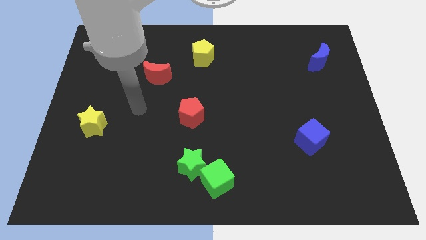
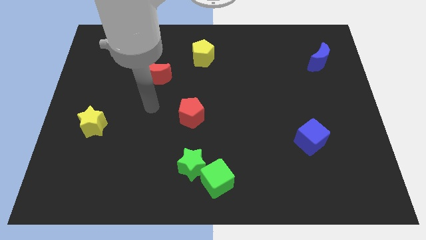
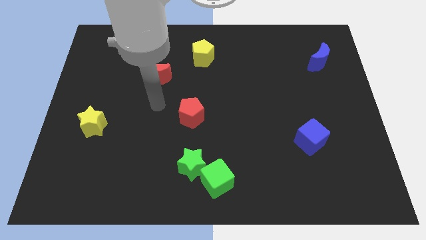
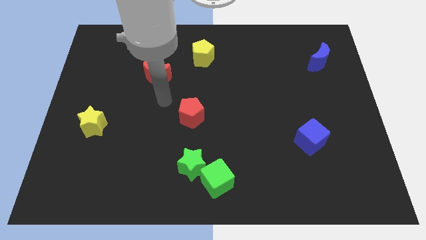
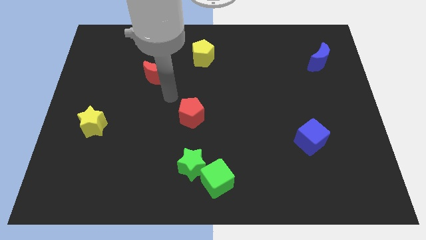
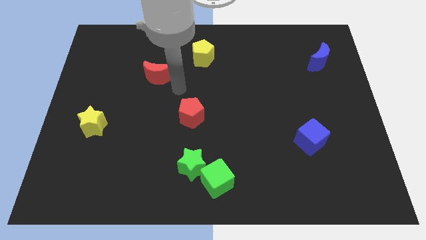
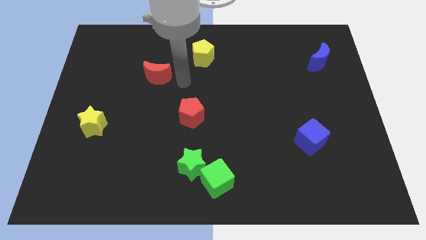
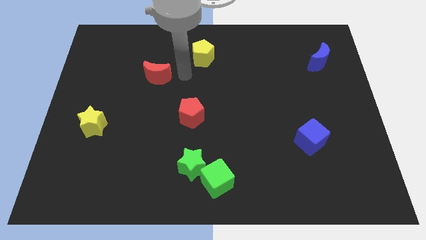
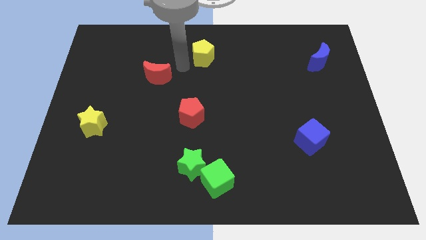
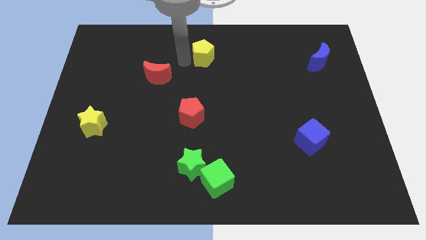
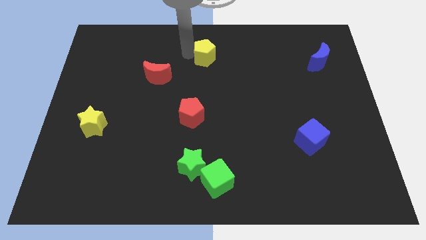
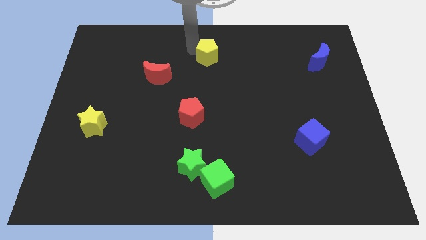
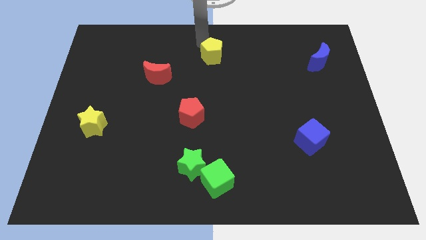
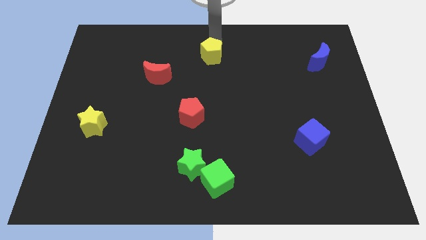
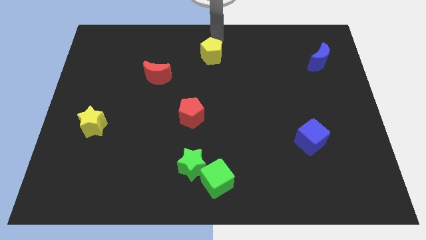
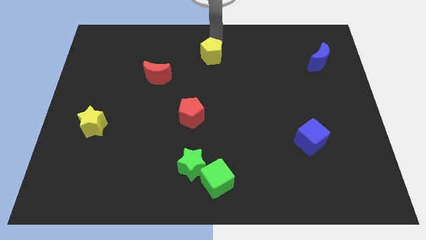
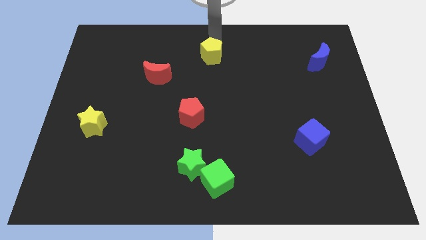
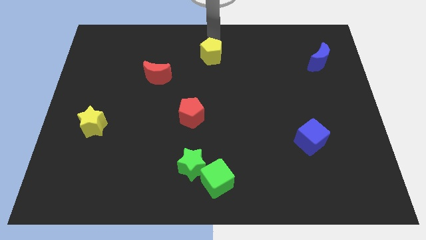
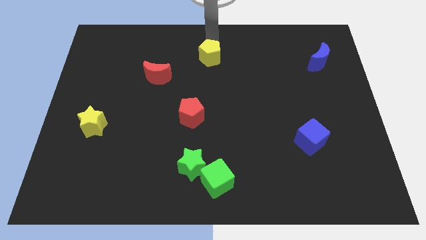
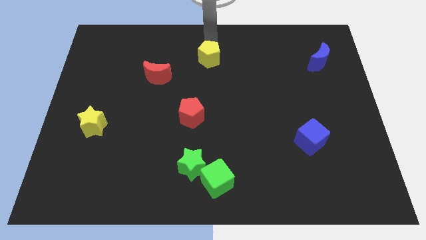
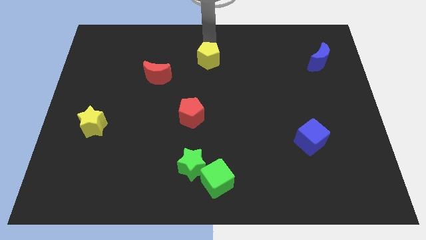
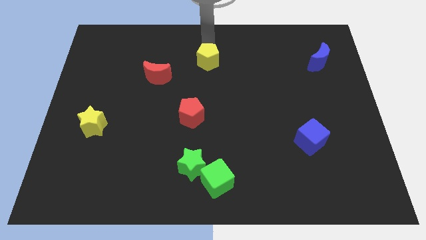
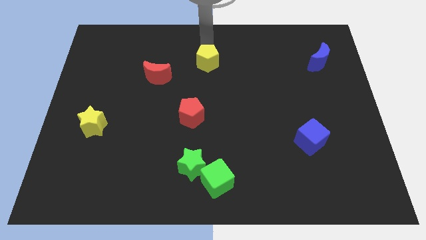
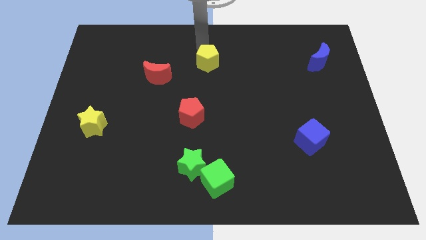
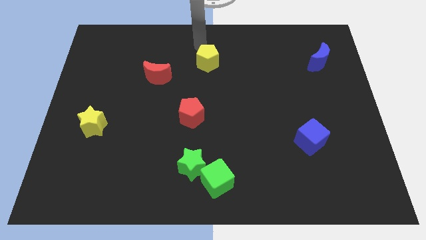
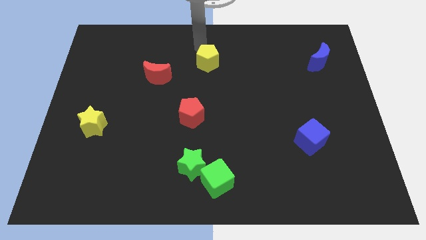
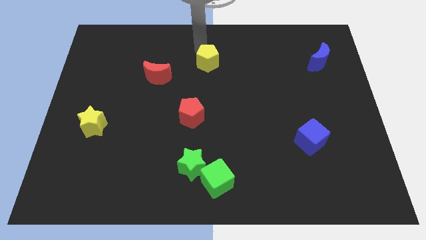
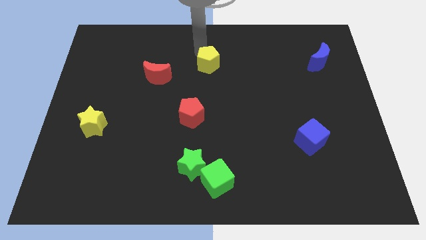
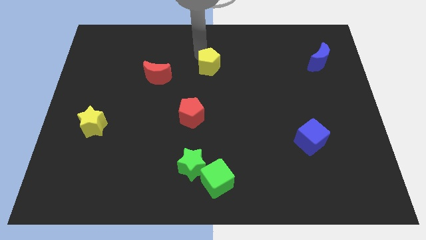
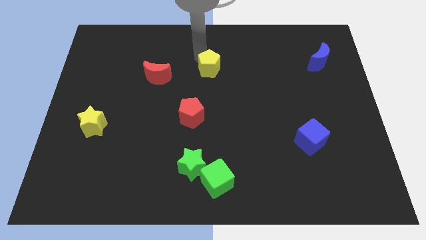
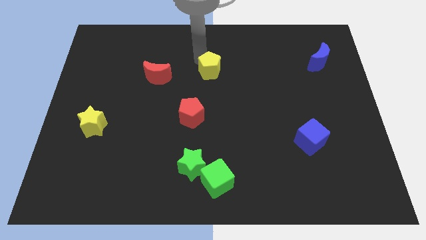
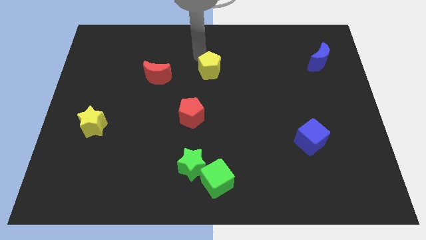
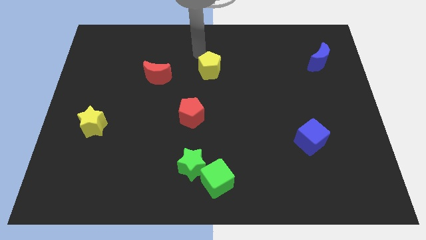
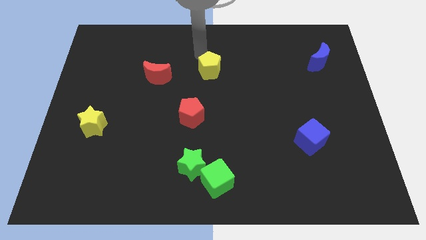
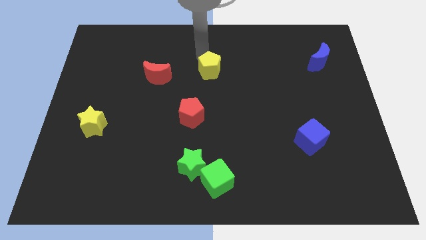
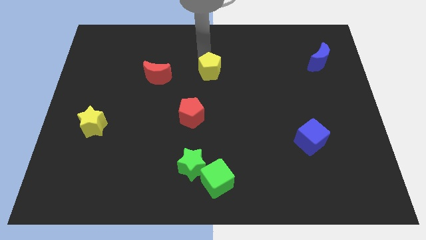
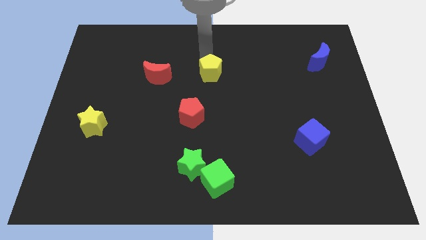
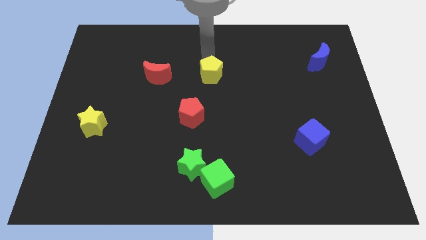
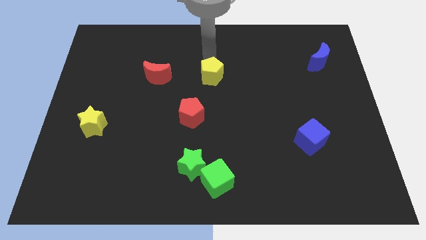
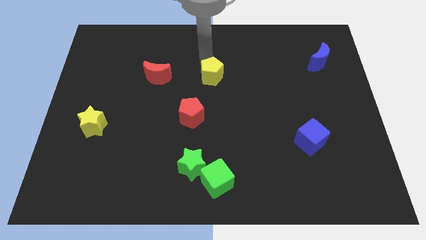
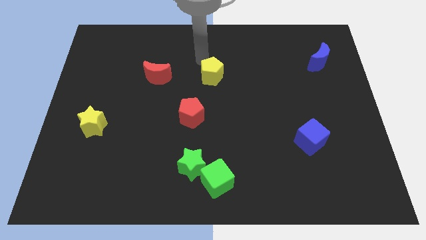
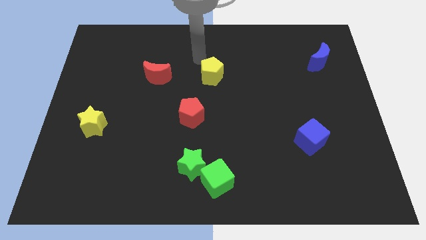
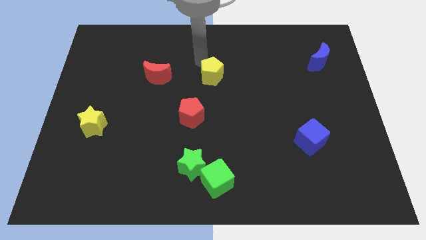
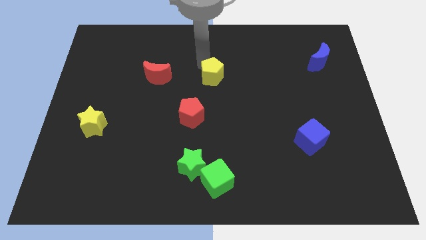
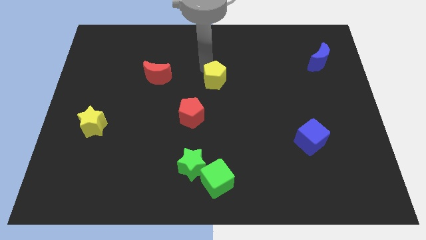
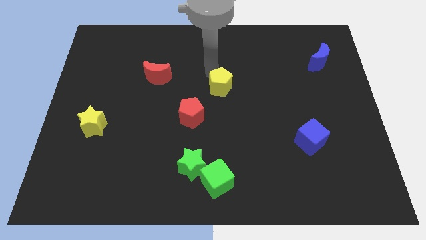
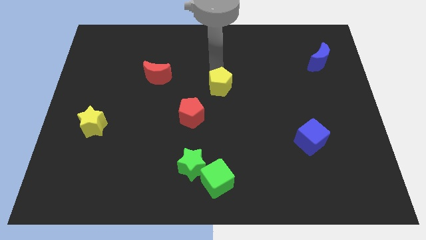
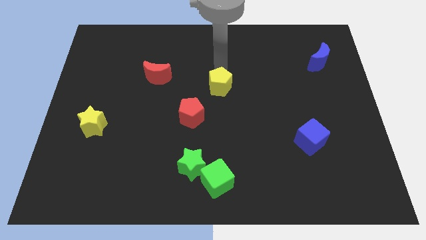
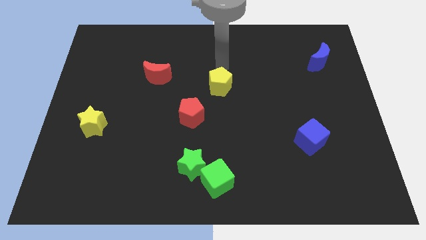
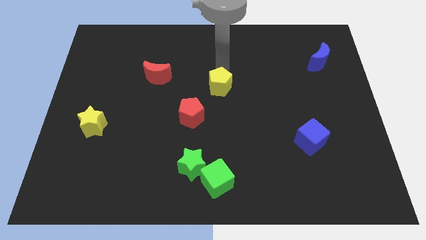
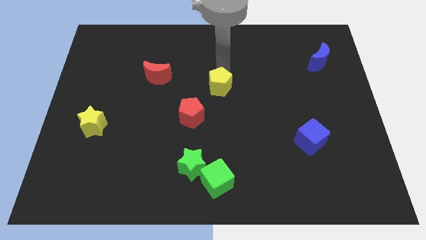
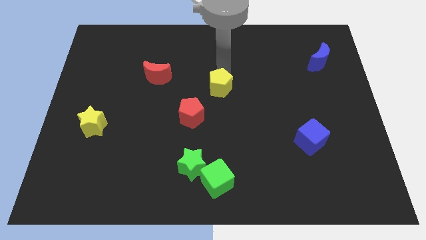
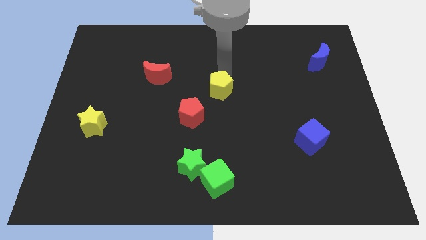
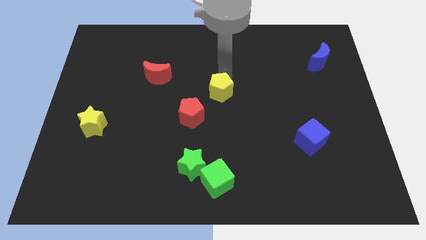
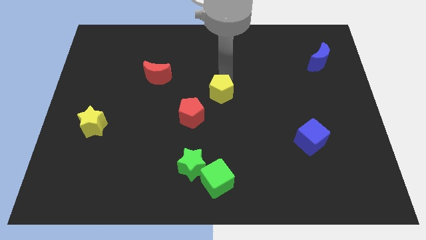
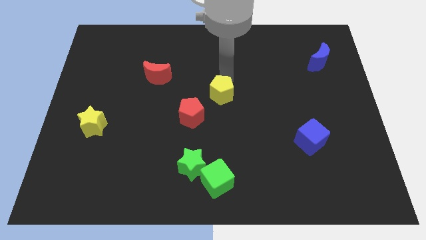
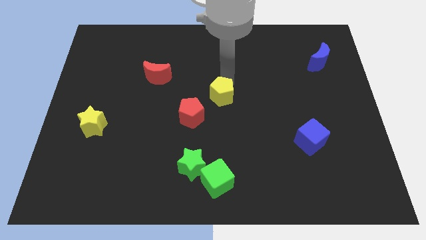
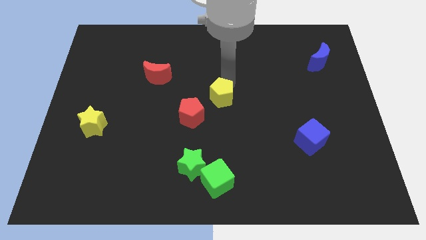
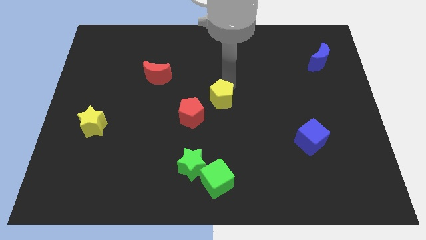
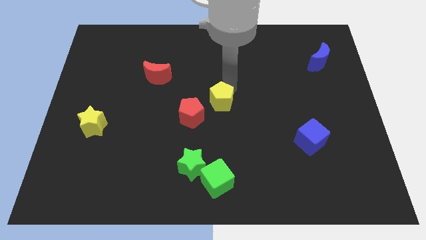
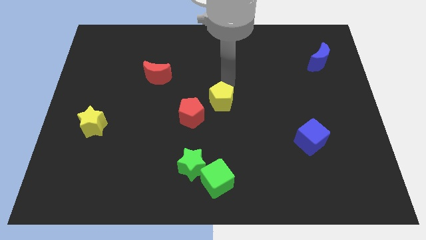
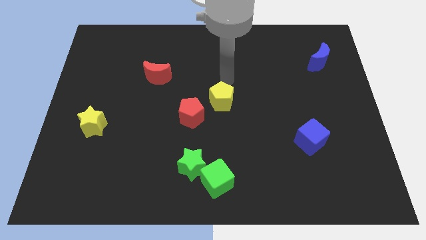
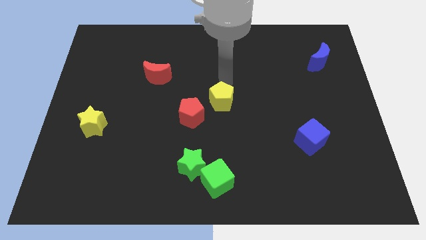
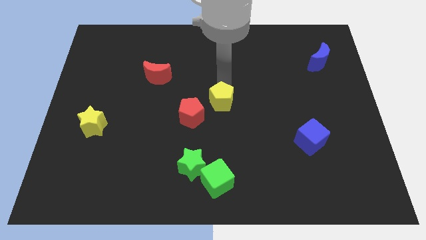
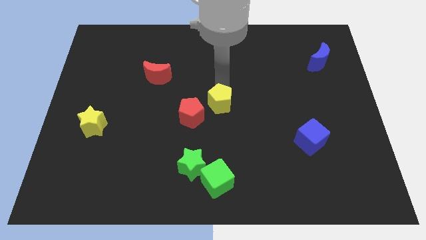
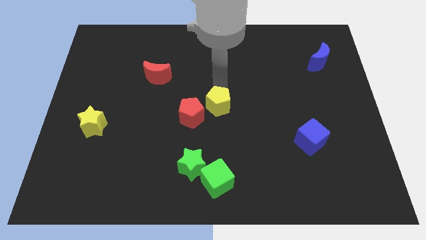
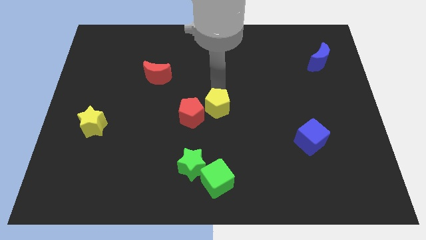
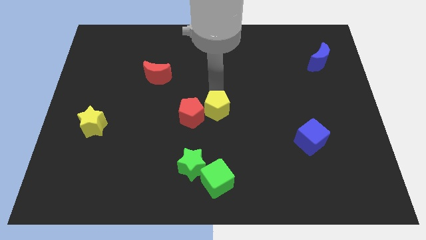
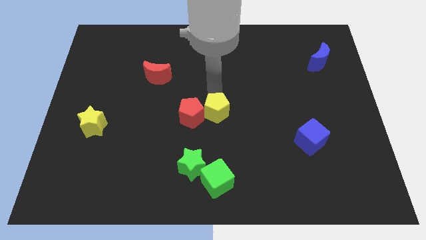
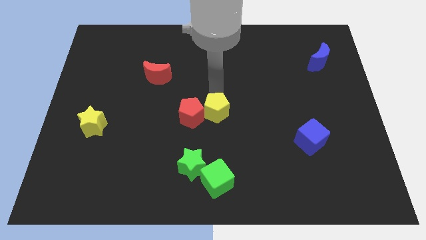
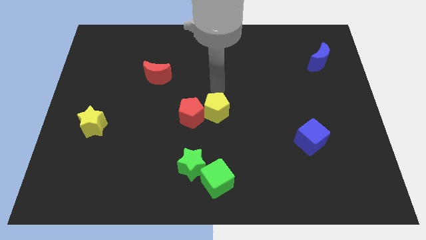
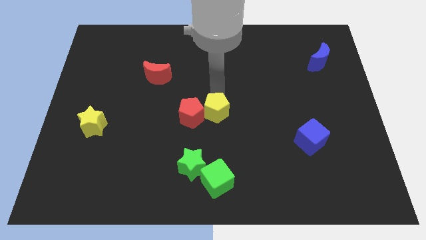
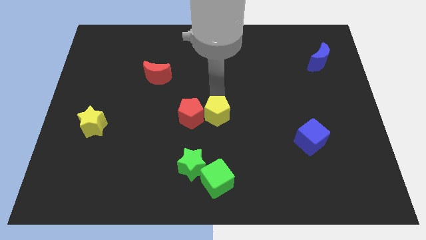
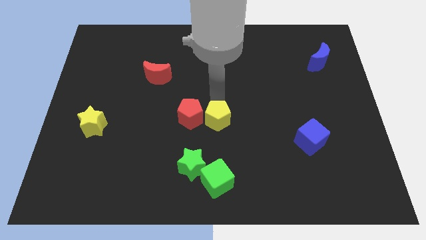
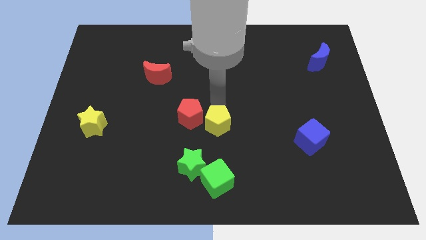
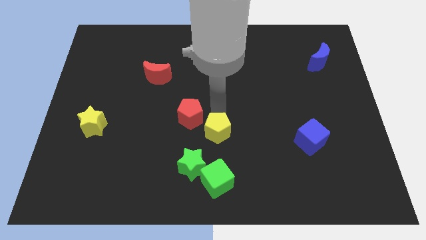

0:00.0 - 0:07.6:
move the yellow pentagon to the top right of the green star
